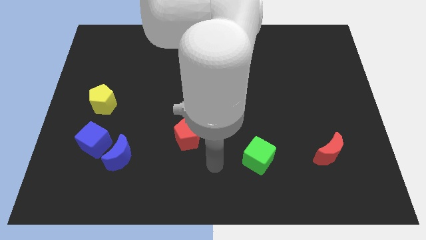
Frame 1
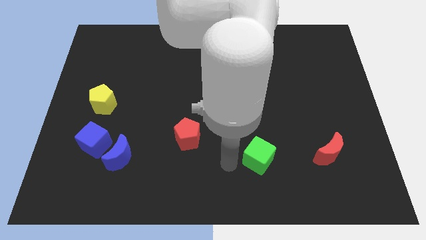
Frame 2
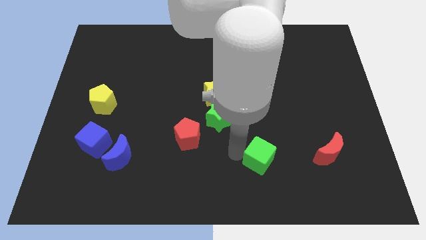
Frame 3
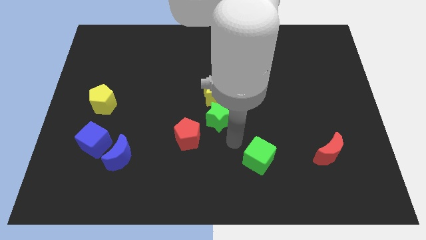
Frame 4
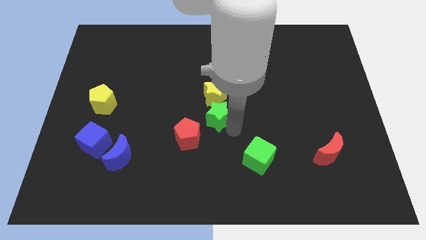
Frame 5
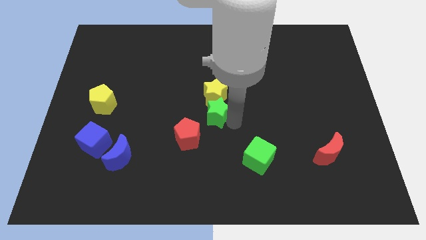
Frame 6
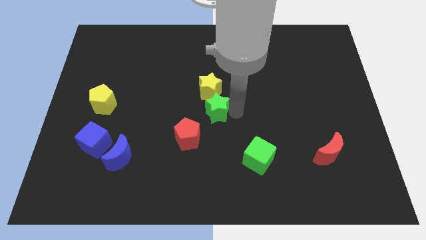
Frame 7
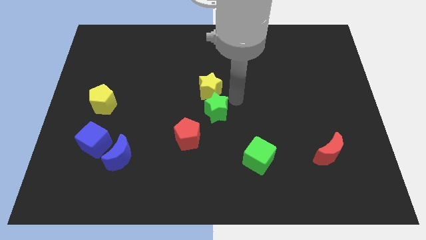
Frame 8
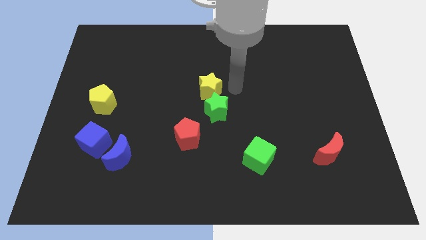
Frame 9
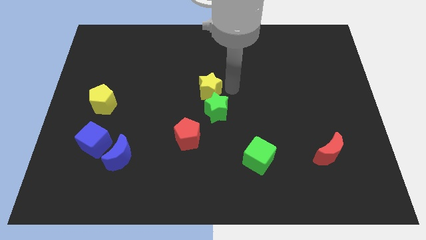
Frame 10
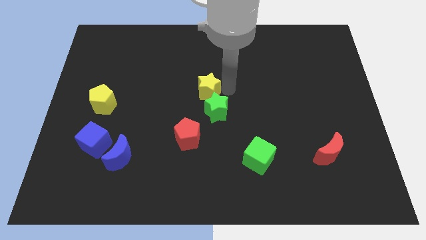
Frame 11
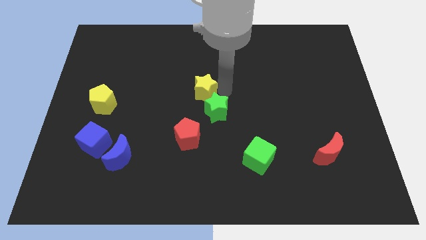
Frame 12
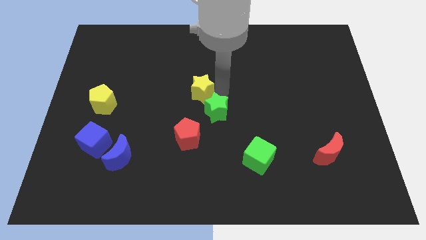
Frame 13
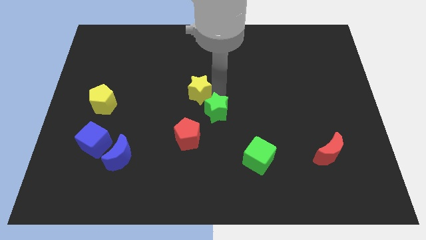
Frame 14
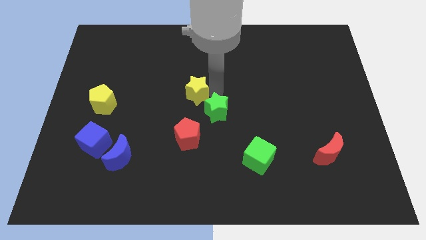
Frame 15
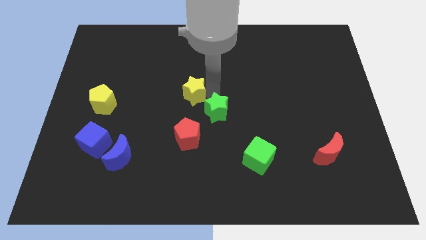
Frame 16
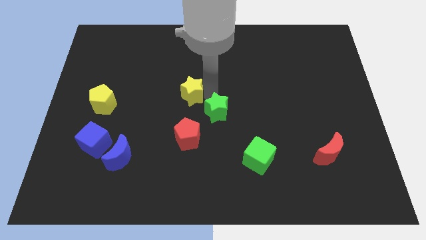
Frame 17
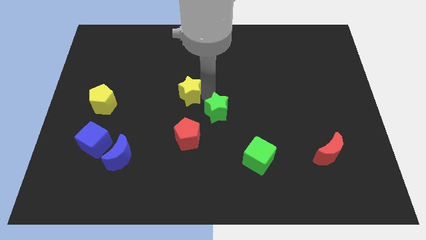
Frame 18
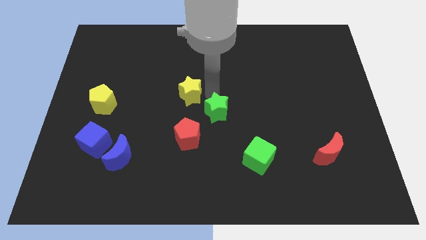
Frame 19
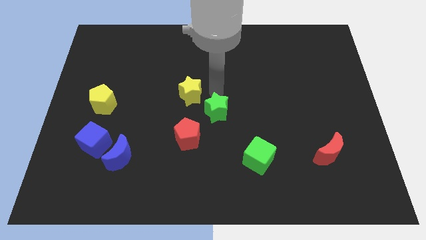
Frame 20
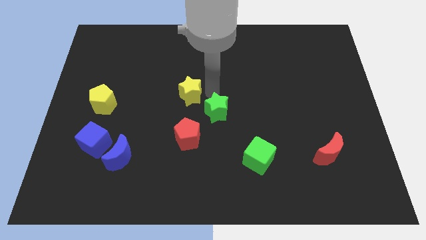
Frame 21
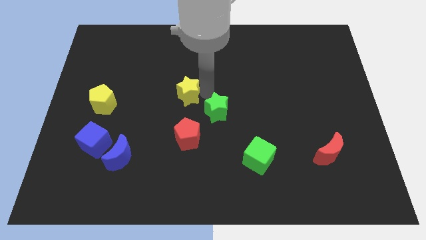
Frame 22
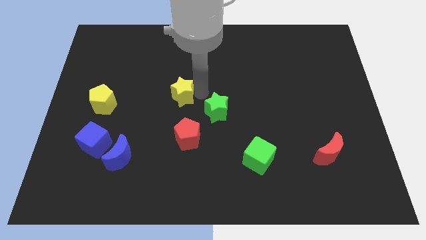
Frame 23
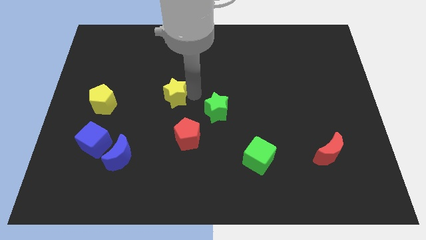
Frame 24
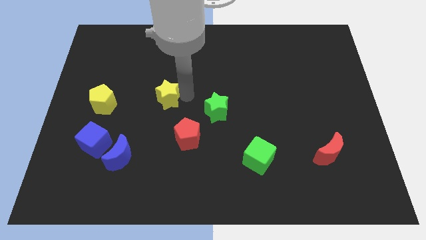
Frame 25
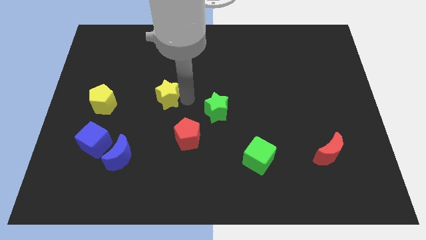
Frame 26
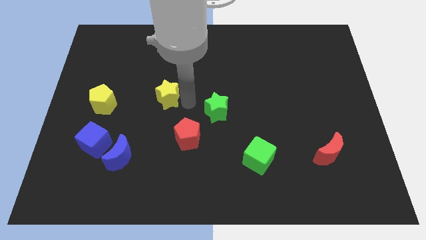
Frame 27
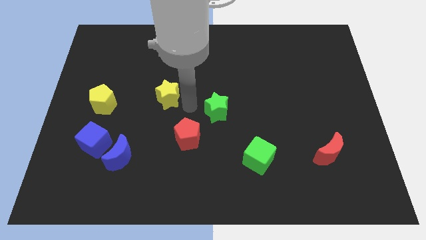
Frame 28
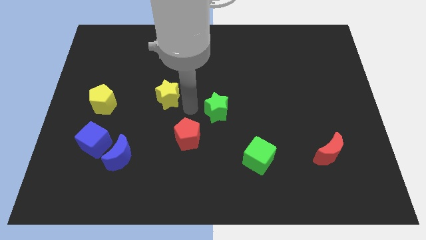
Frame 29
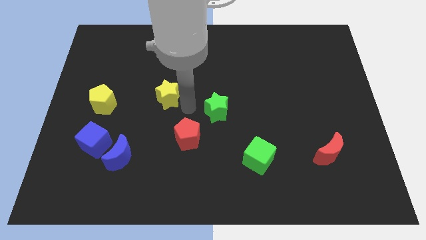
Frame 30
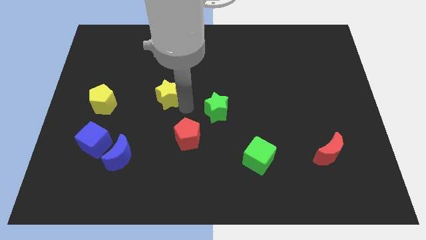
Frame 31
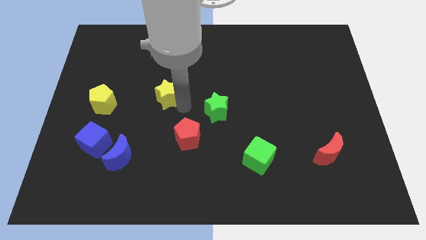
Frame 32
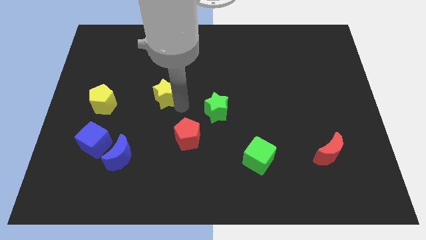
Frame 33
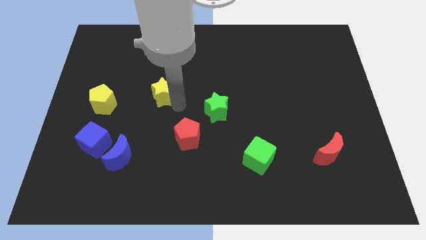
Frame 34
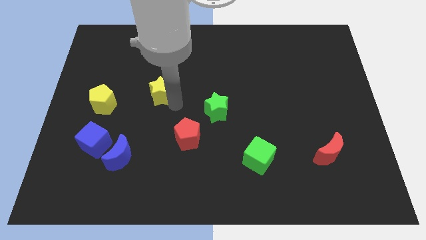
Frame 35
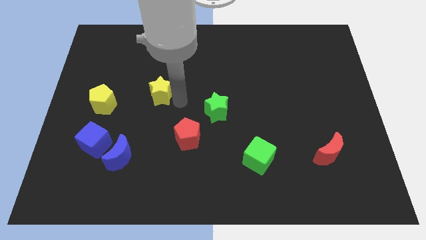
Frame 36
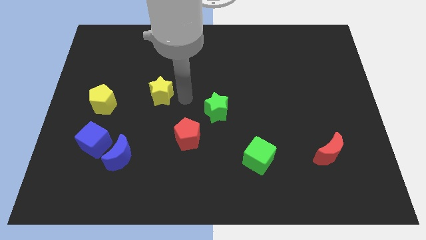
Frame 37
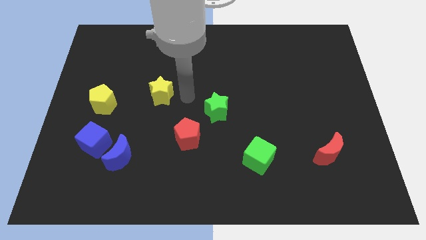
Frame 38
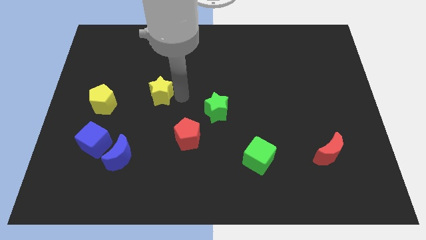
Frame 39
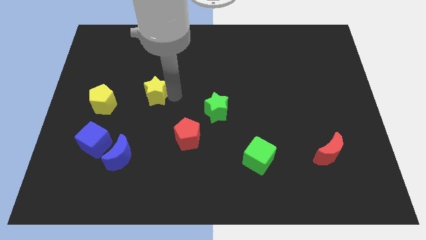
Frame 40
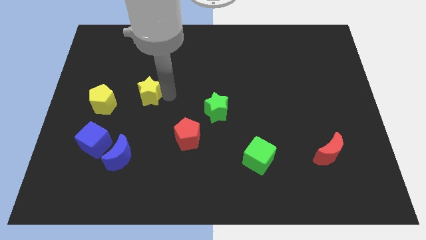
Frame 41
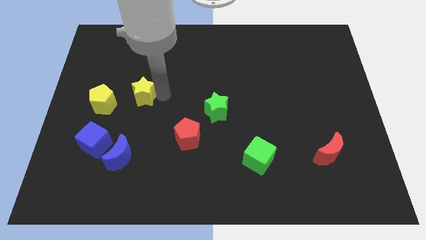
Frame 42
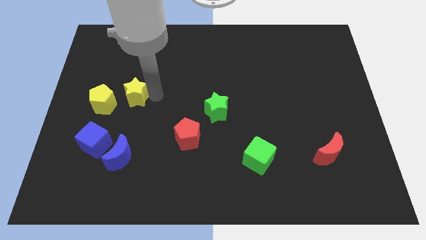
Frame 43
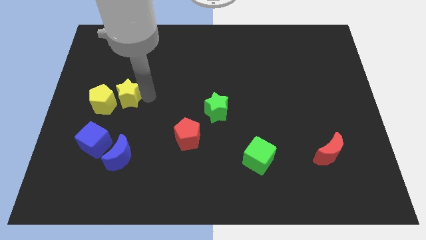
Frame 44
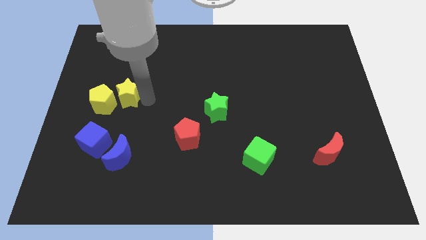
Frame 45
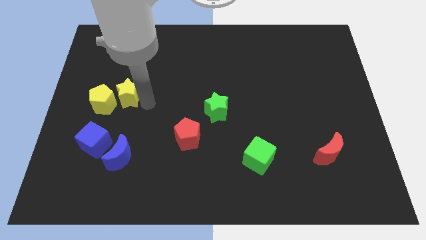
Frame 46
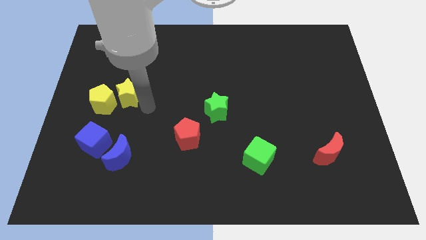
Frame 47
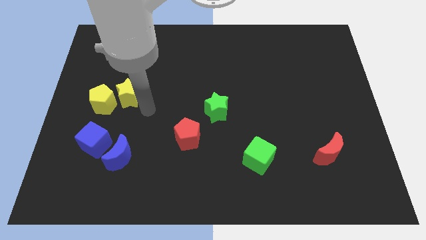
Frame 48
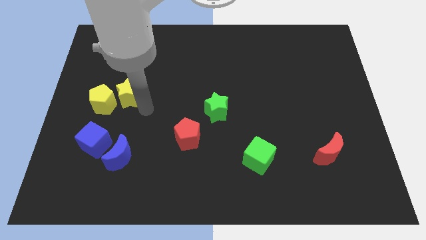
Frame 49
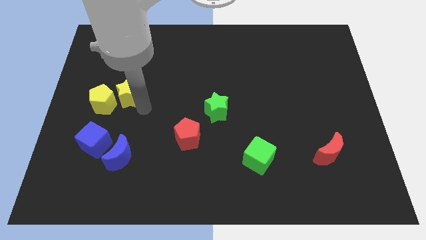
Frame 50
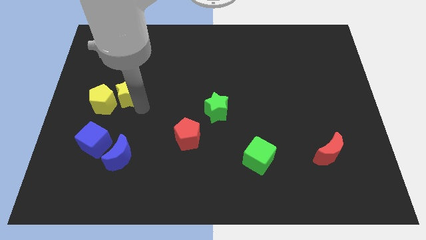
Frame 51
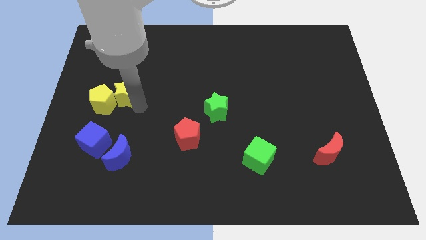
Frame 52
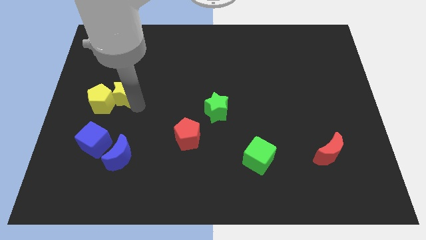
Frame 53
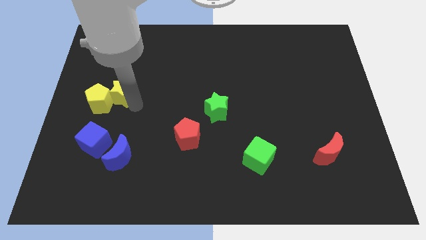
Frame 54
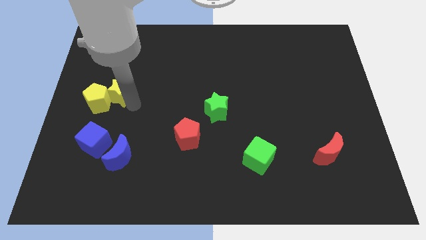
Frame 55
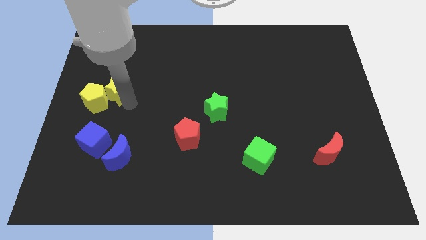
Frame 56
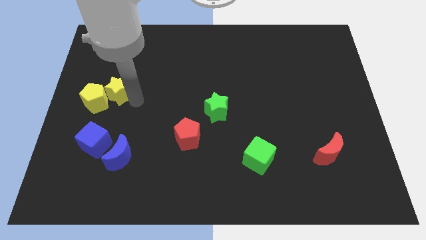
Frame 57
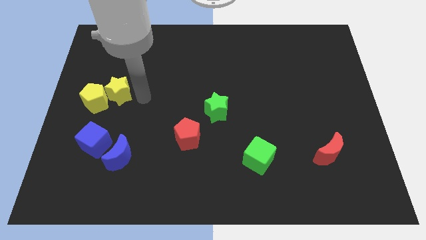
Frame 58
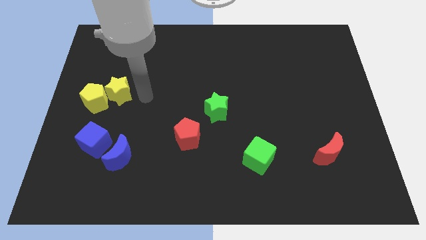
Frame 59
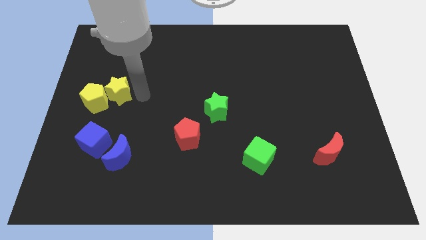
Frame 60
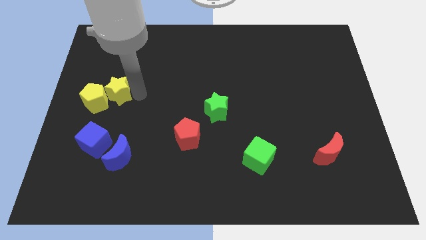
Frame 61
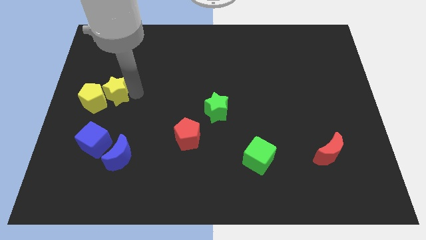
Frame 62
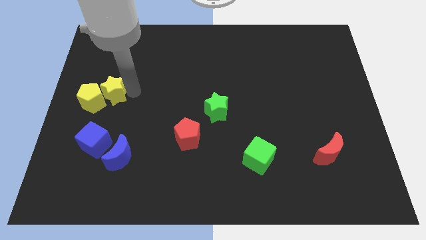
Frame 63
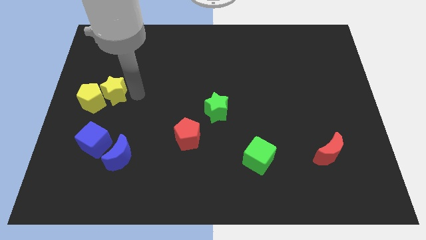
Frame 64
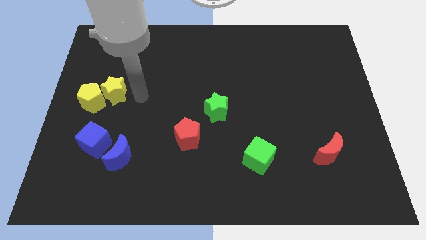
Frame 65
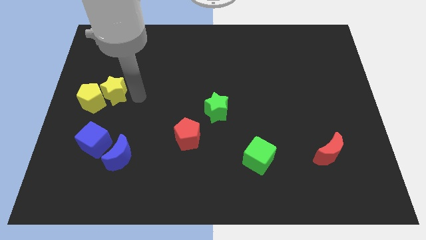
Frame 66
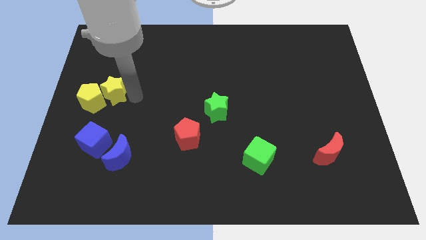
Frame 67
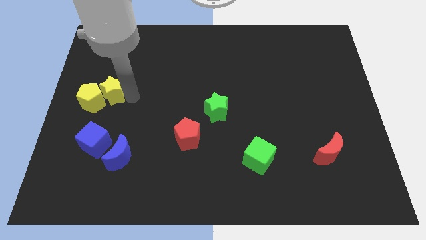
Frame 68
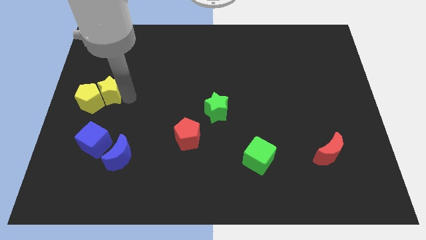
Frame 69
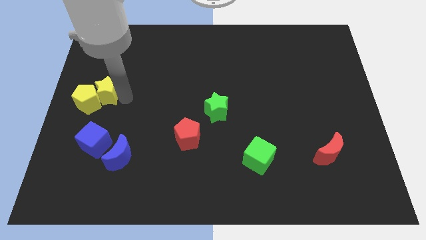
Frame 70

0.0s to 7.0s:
slide the yellow star to the center left
